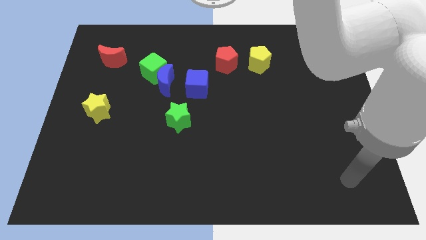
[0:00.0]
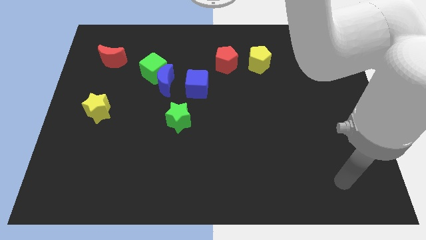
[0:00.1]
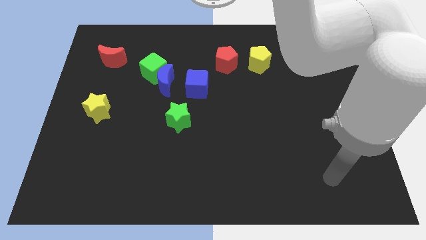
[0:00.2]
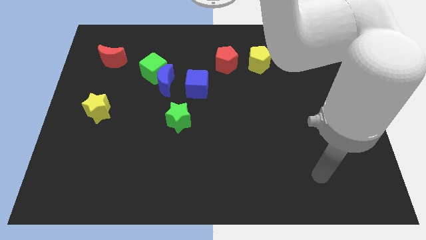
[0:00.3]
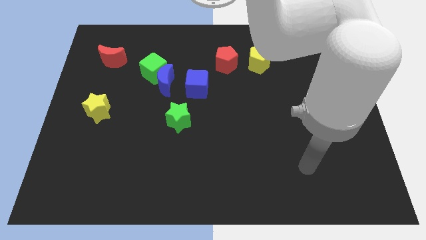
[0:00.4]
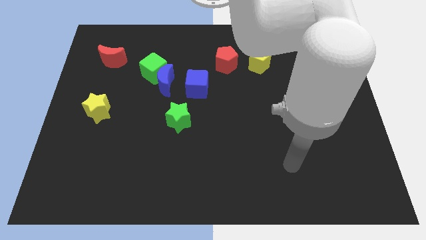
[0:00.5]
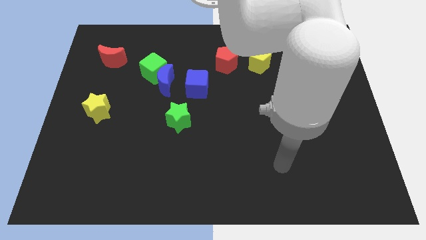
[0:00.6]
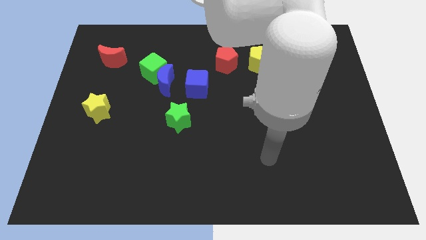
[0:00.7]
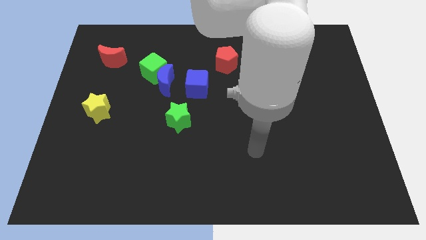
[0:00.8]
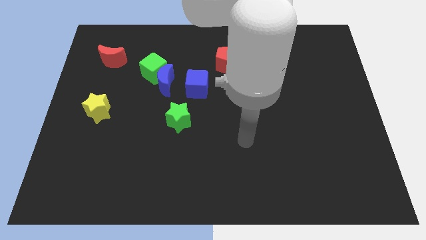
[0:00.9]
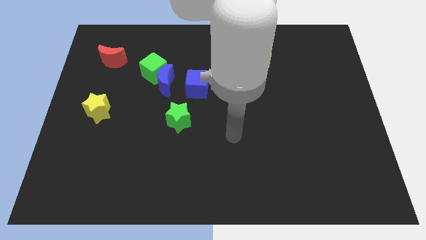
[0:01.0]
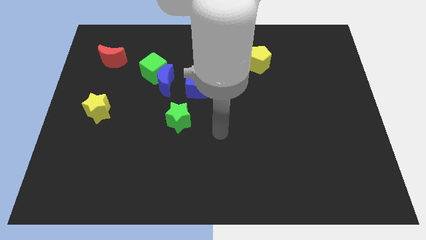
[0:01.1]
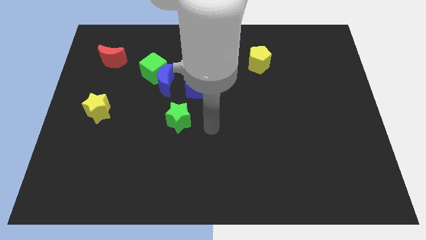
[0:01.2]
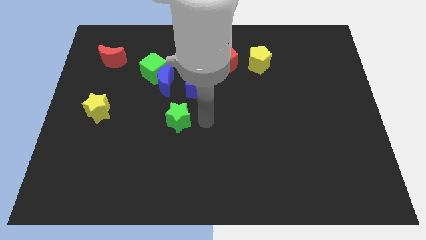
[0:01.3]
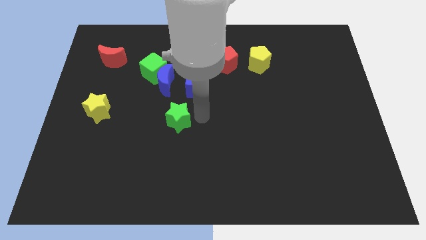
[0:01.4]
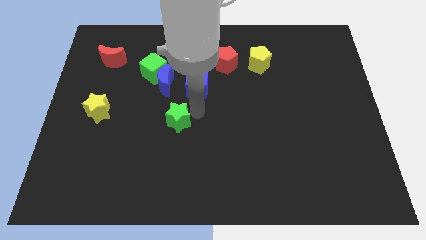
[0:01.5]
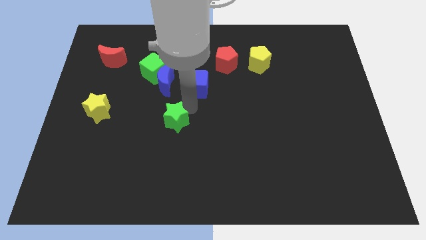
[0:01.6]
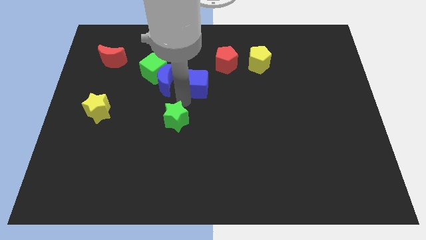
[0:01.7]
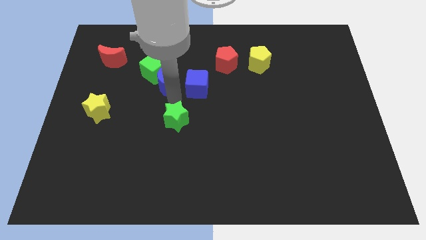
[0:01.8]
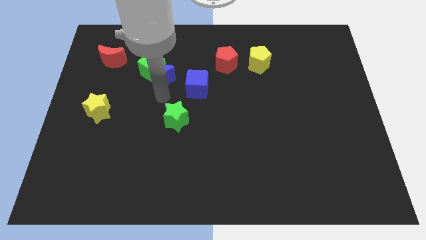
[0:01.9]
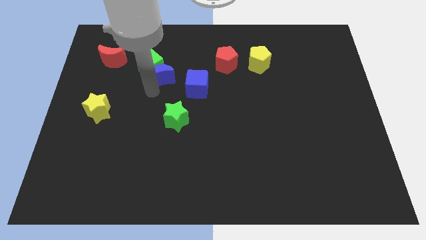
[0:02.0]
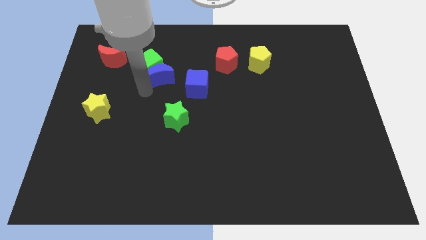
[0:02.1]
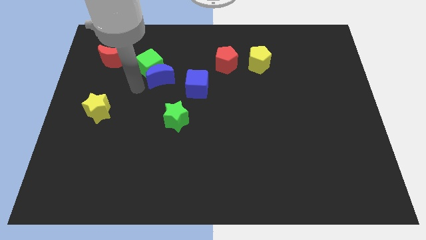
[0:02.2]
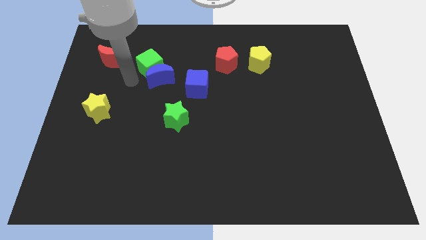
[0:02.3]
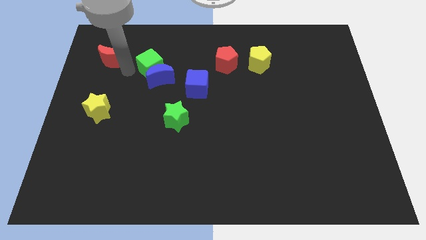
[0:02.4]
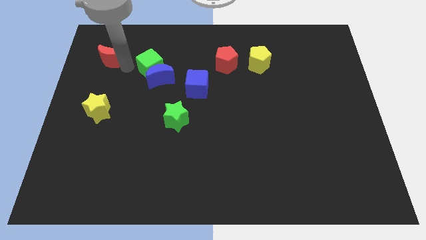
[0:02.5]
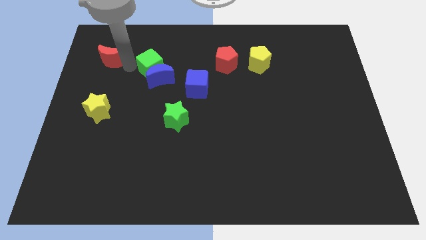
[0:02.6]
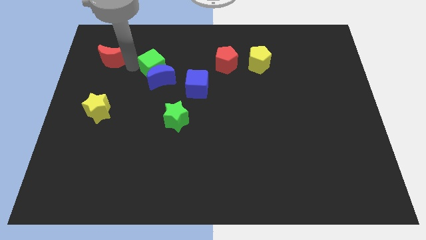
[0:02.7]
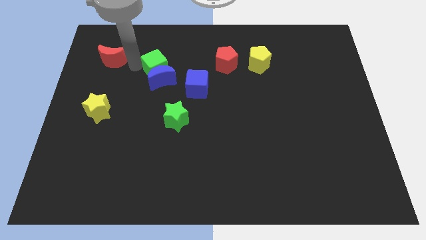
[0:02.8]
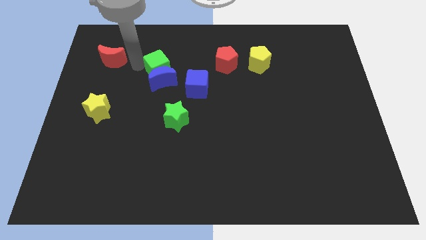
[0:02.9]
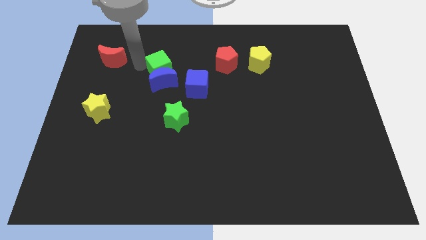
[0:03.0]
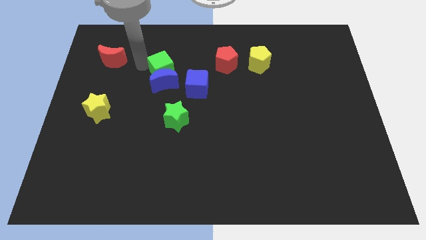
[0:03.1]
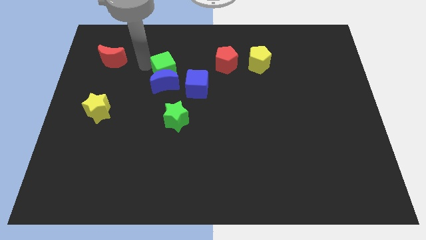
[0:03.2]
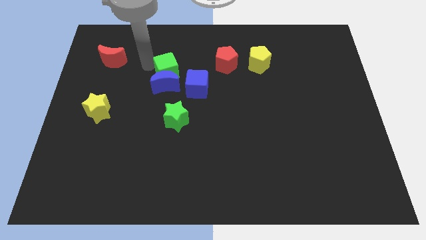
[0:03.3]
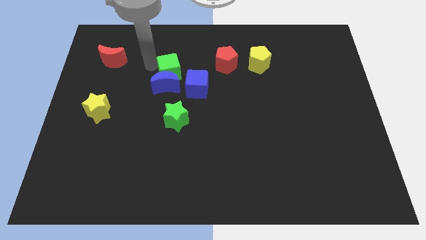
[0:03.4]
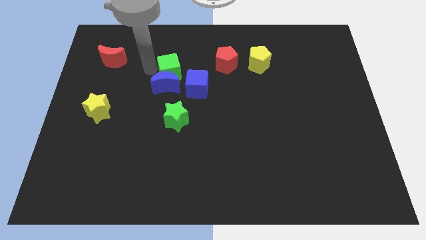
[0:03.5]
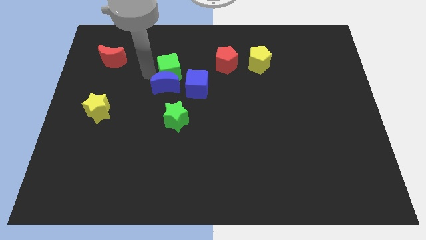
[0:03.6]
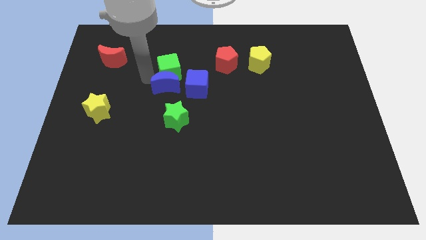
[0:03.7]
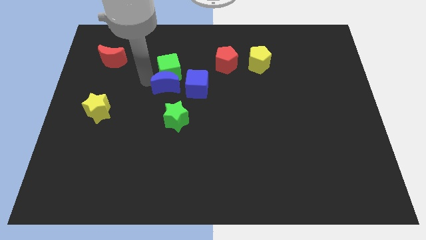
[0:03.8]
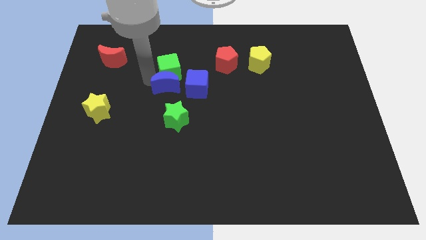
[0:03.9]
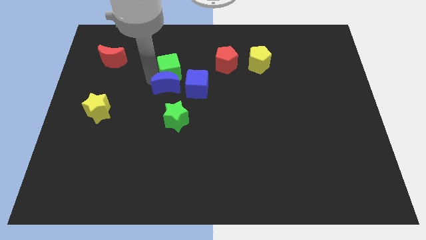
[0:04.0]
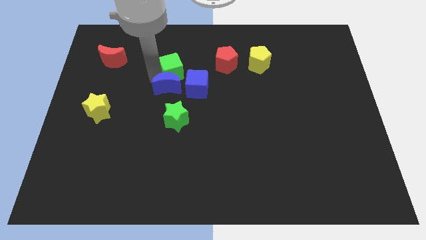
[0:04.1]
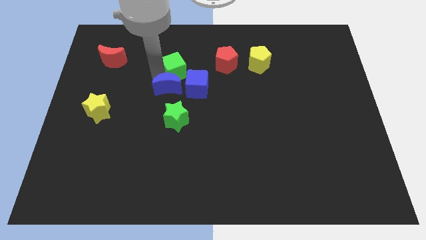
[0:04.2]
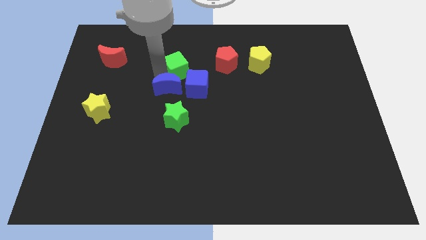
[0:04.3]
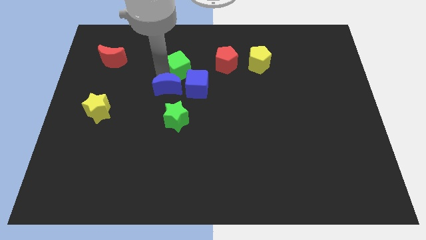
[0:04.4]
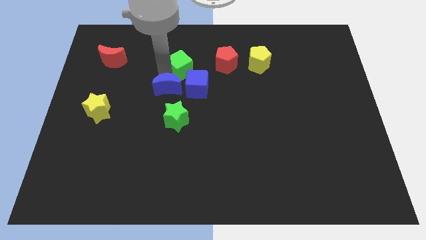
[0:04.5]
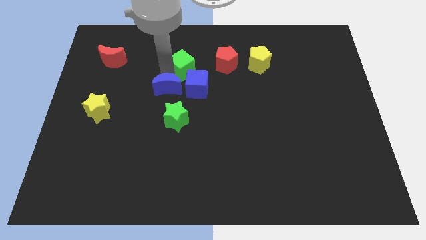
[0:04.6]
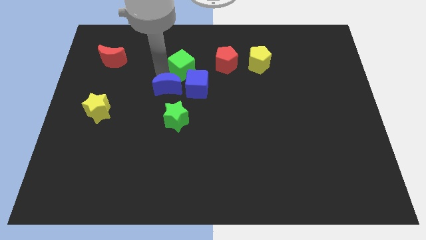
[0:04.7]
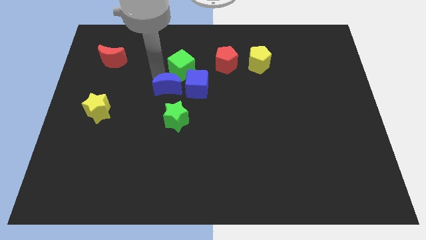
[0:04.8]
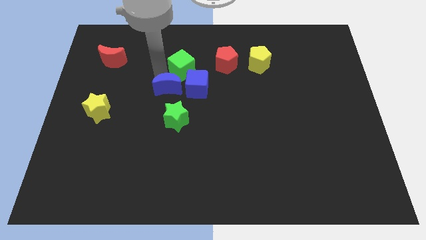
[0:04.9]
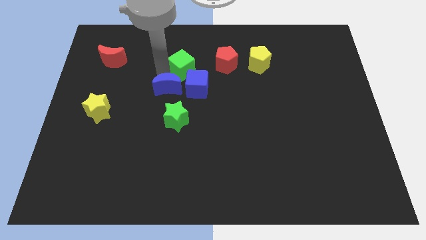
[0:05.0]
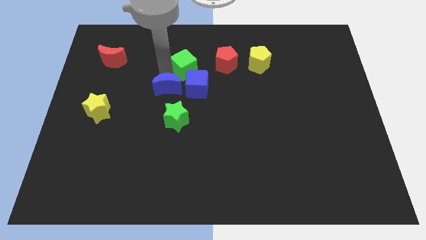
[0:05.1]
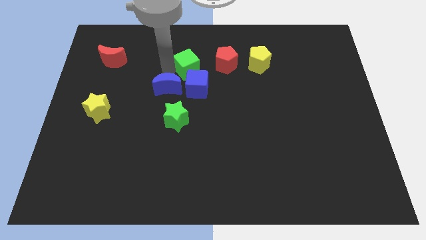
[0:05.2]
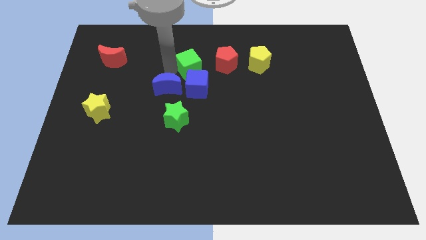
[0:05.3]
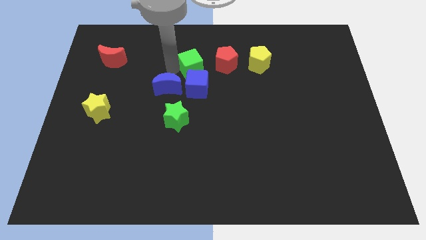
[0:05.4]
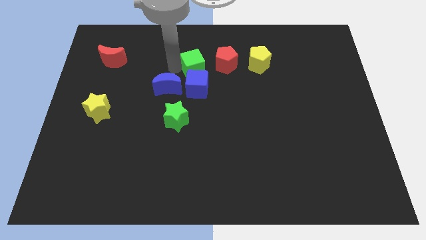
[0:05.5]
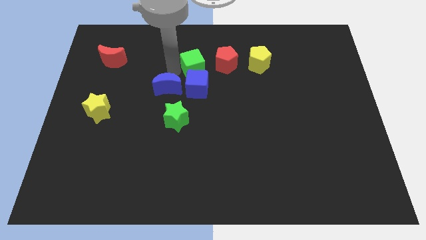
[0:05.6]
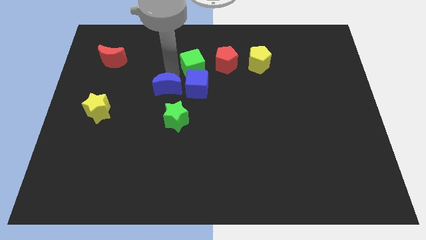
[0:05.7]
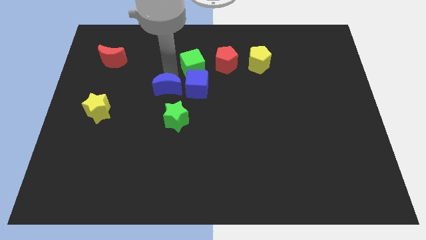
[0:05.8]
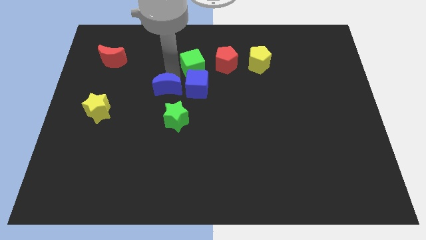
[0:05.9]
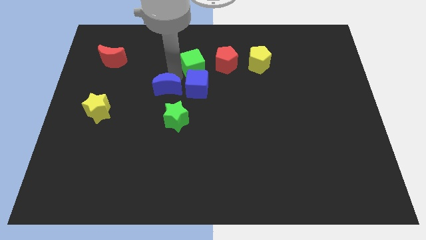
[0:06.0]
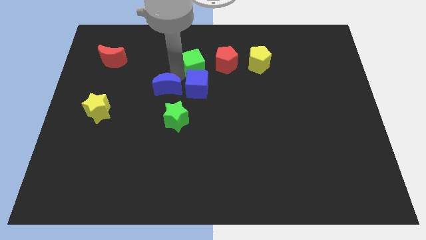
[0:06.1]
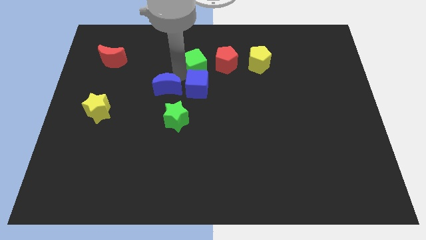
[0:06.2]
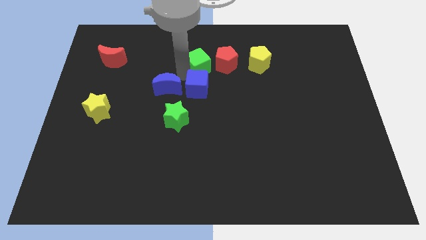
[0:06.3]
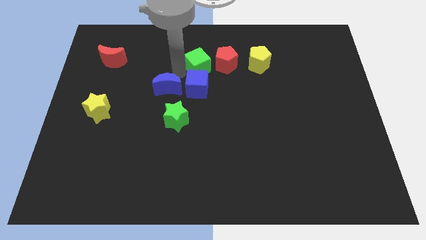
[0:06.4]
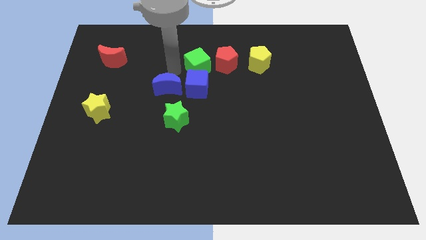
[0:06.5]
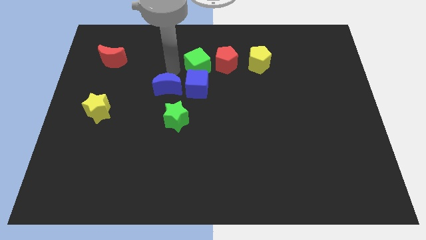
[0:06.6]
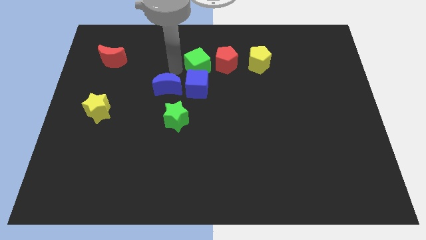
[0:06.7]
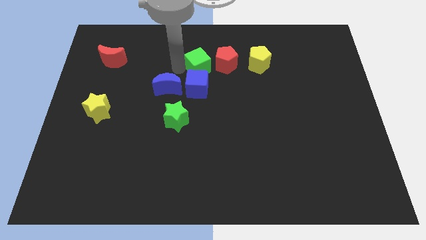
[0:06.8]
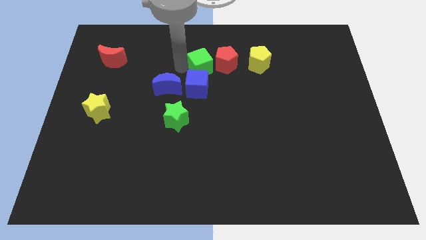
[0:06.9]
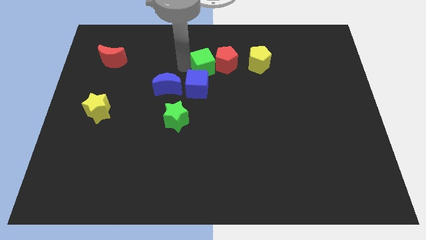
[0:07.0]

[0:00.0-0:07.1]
move the green cube next to the red pentagon
